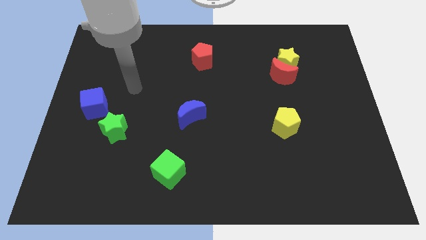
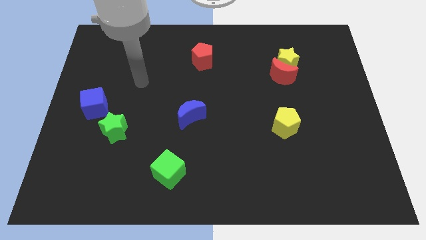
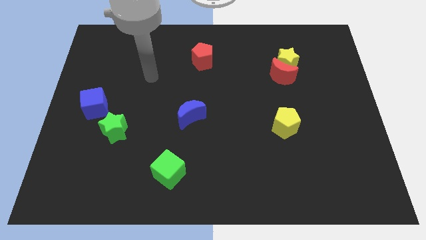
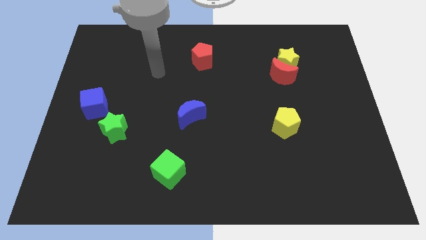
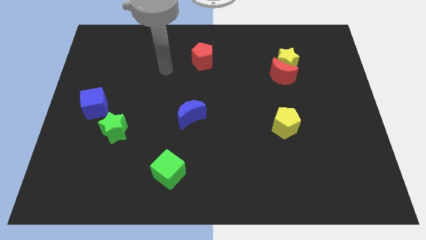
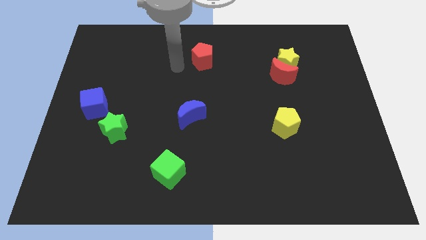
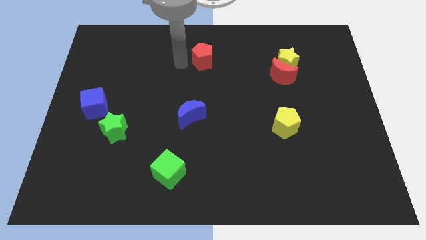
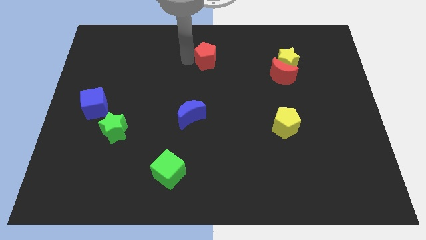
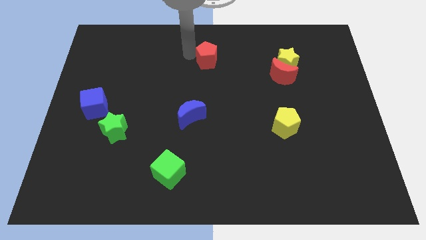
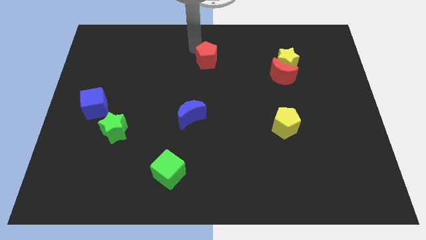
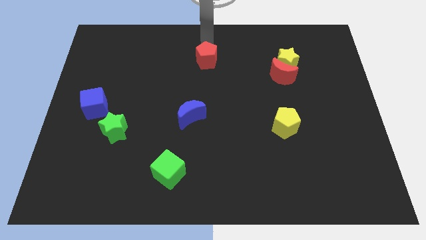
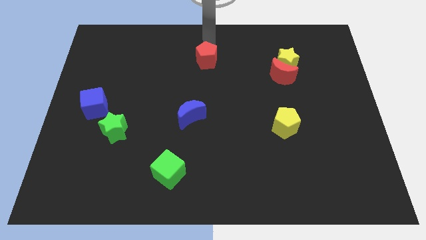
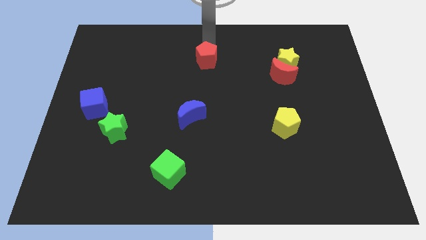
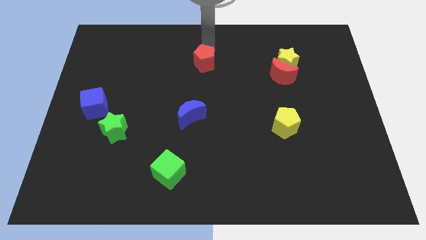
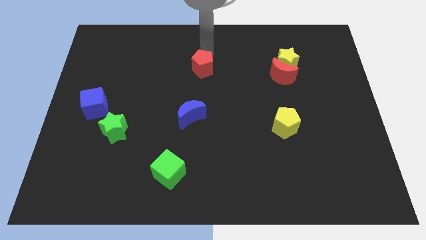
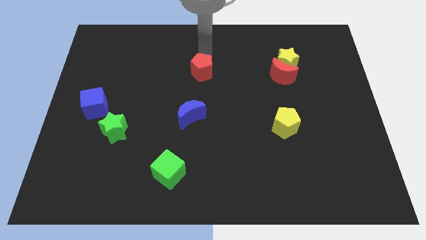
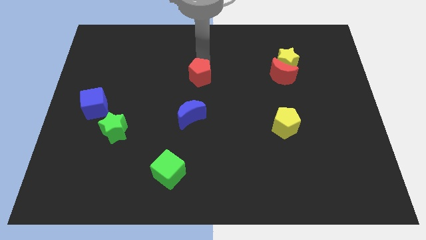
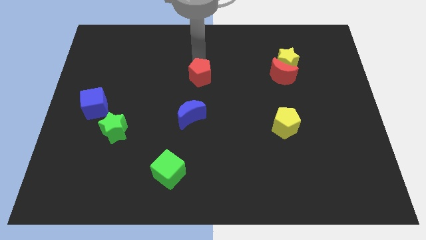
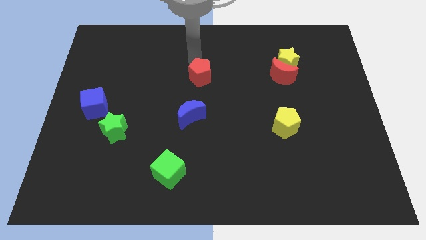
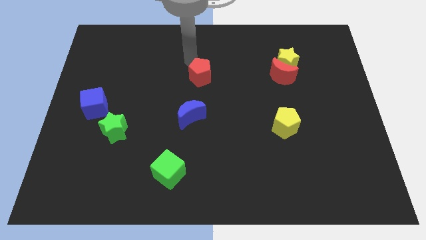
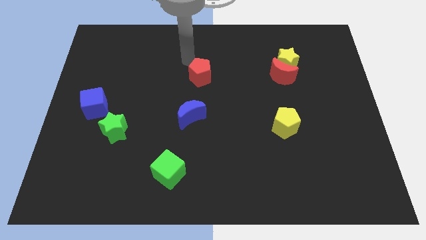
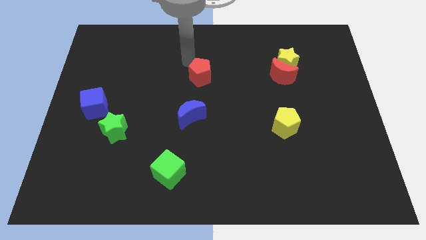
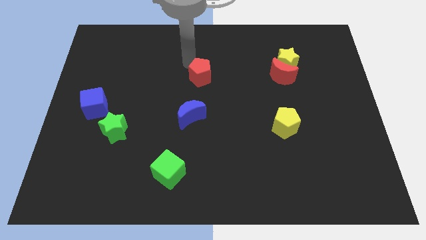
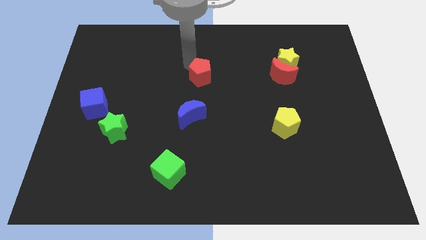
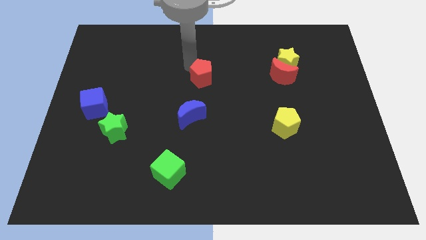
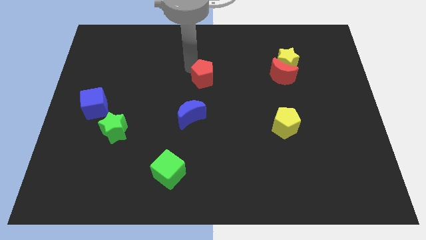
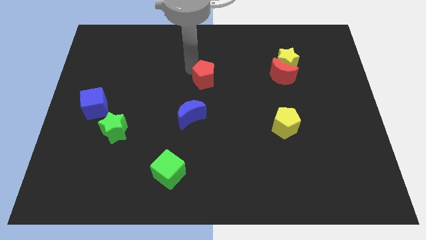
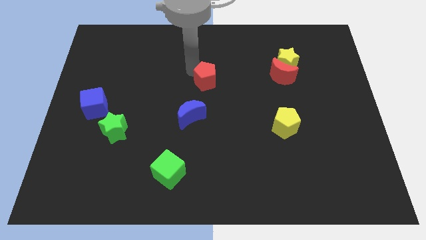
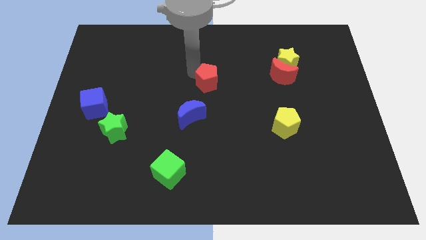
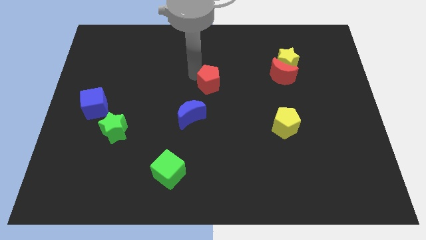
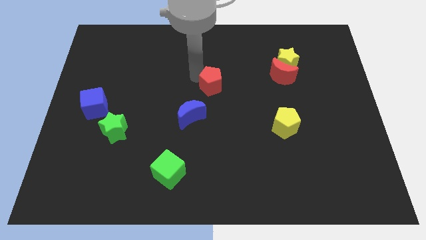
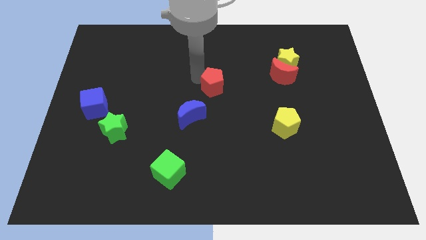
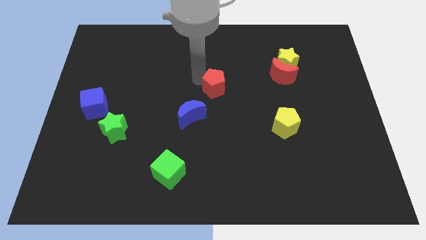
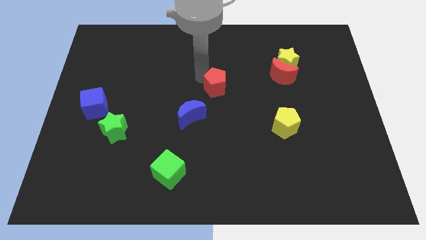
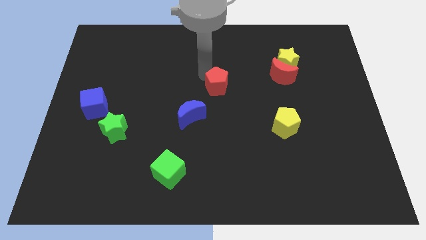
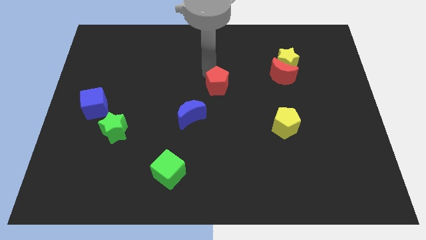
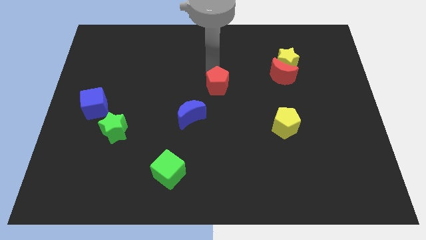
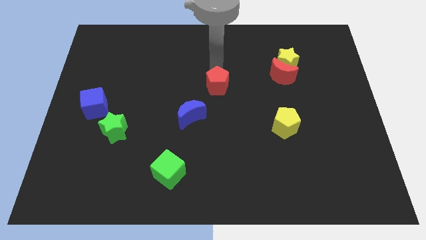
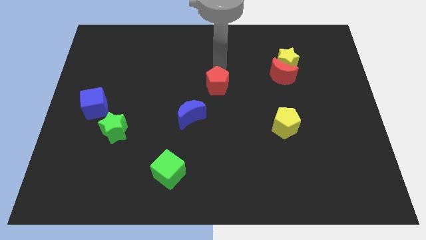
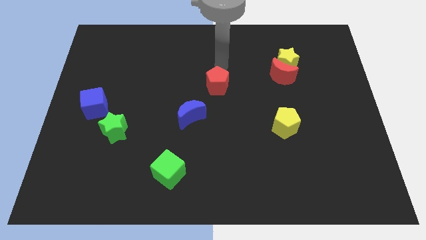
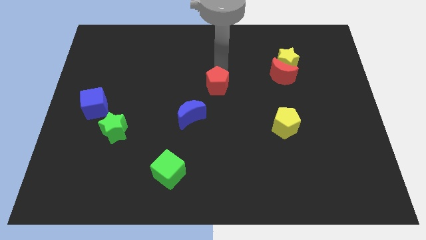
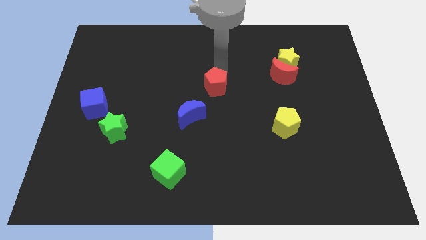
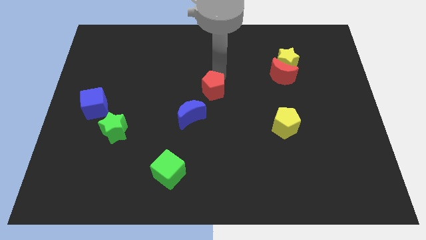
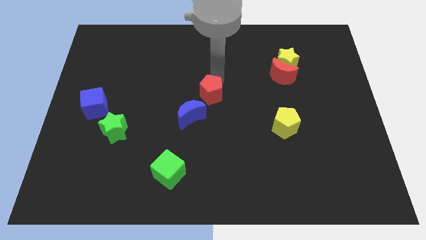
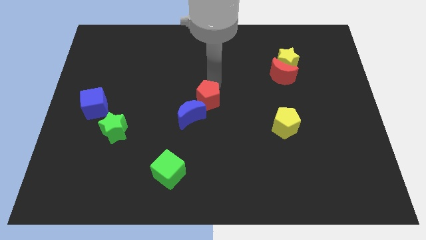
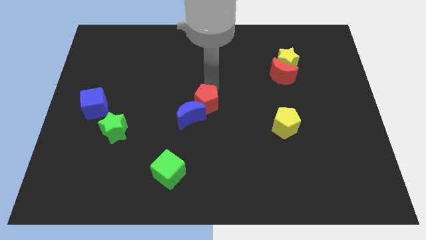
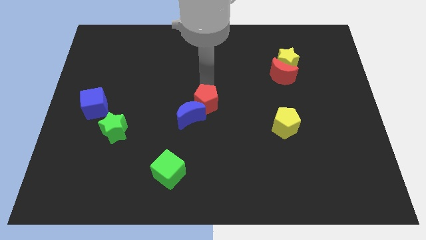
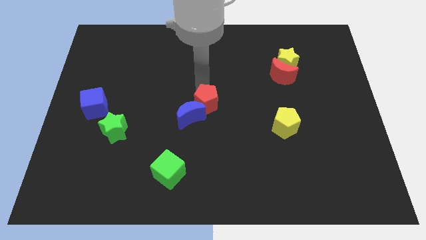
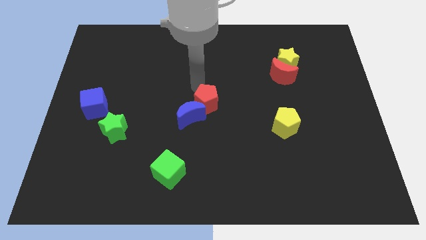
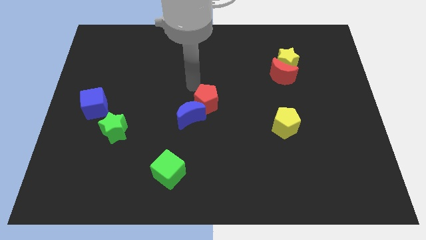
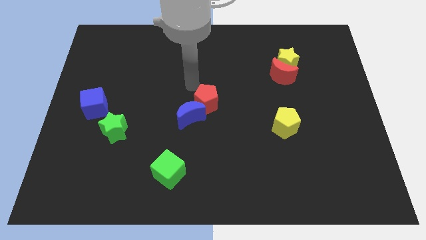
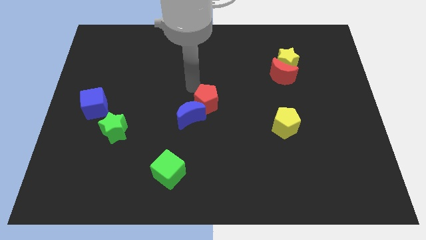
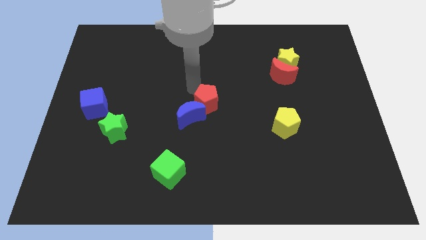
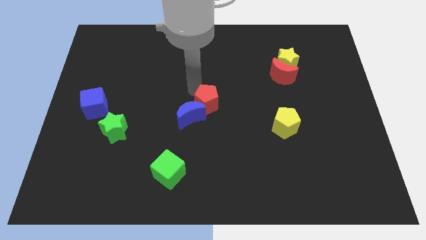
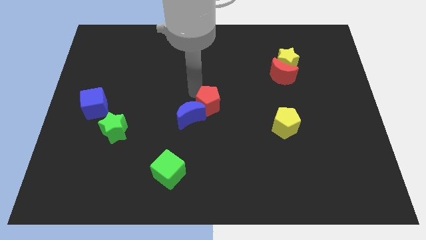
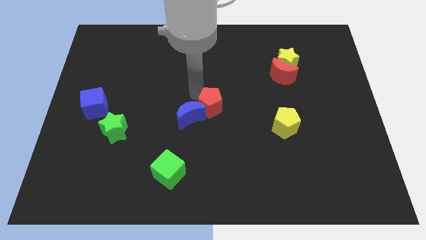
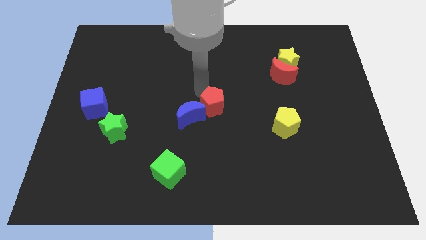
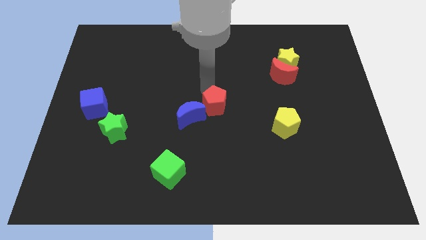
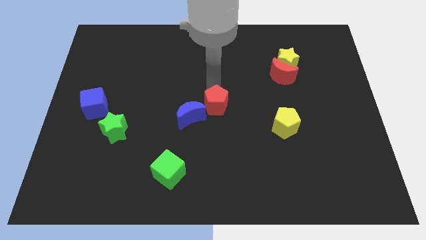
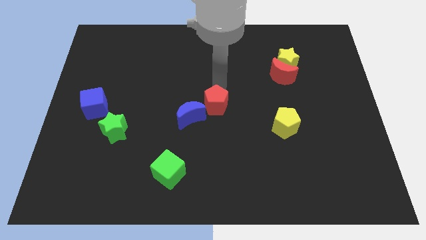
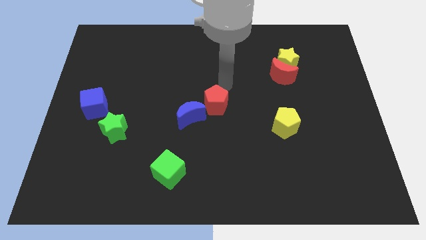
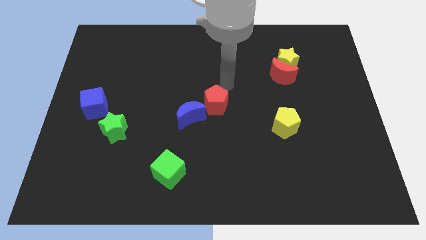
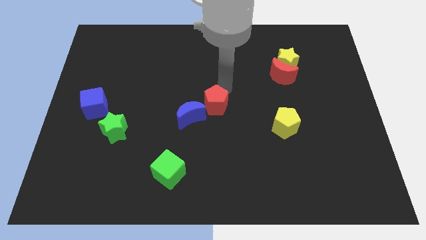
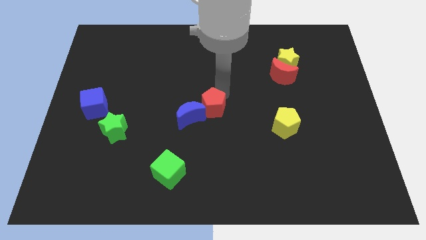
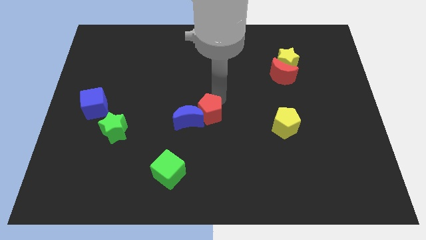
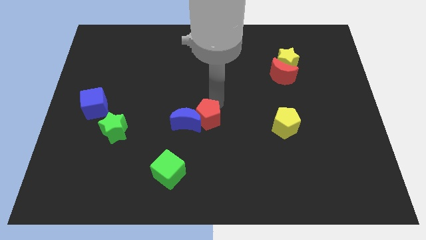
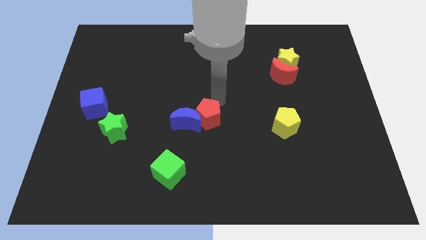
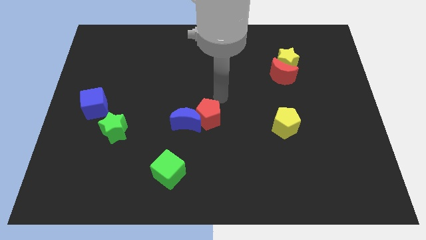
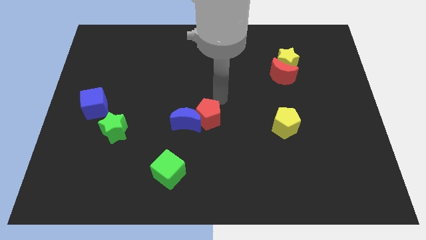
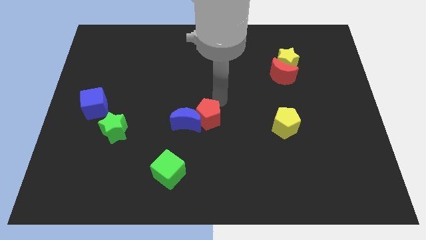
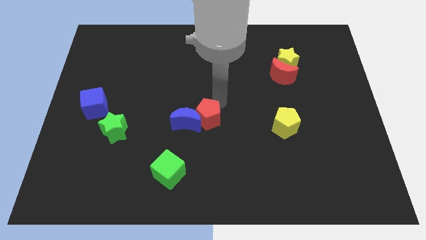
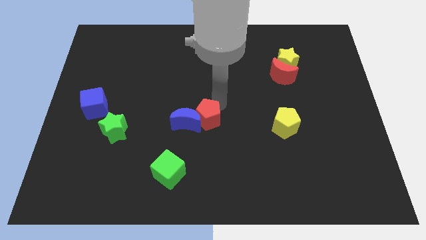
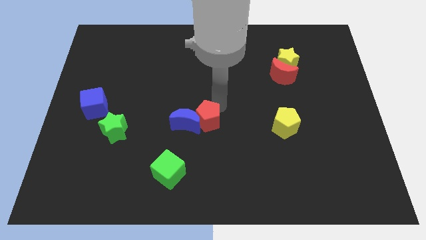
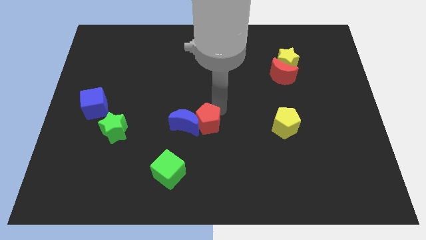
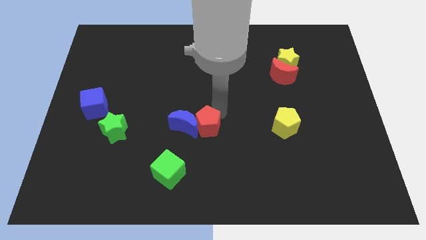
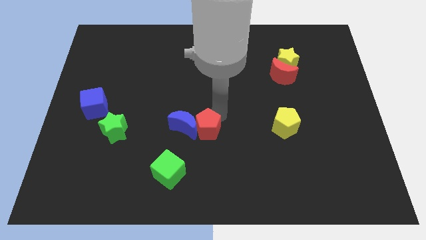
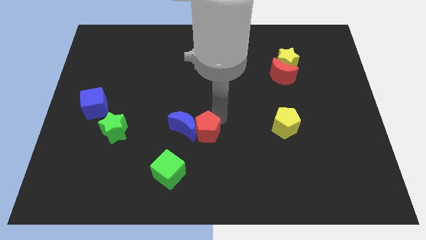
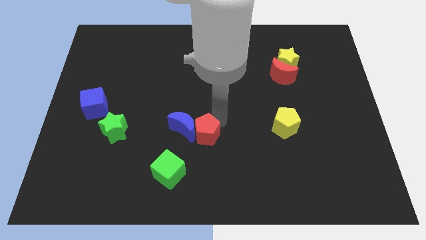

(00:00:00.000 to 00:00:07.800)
slide the red pentagon diagonally up and to the right of the green cube
